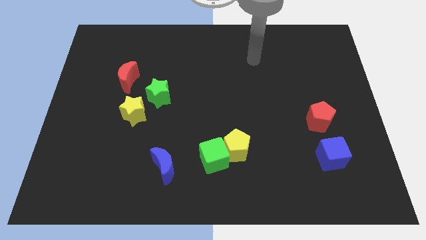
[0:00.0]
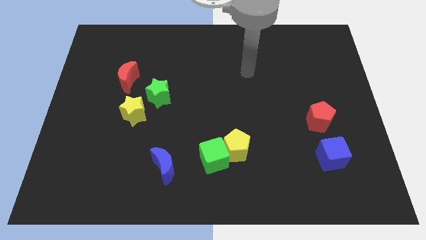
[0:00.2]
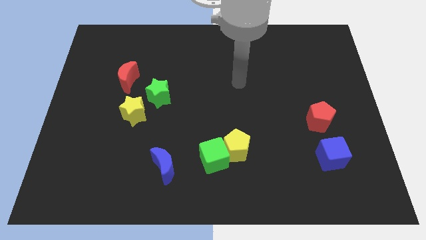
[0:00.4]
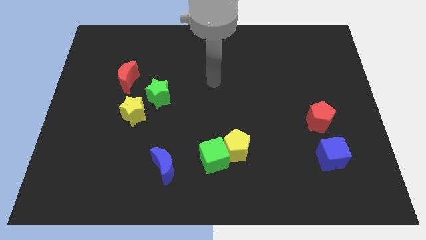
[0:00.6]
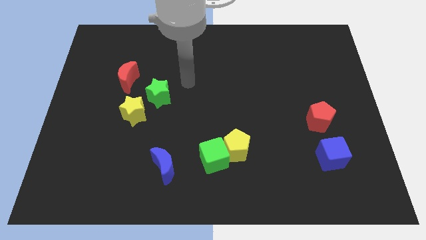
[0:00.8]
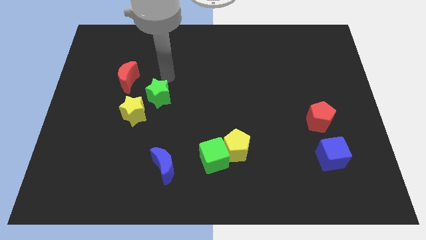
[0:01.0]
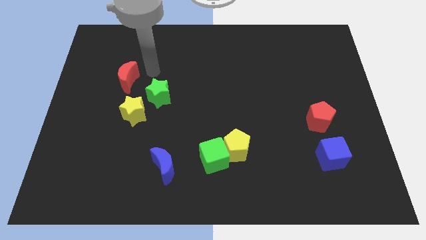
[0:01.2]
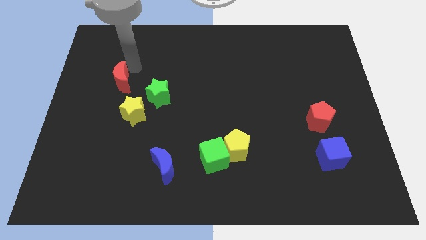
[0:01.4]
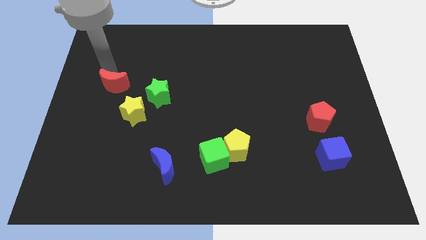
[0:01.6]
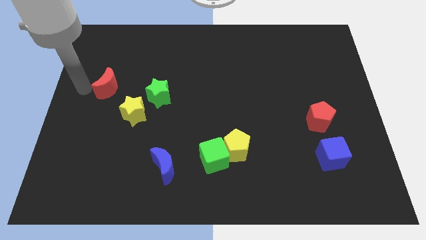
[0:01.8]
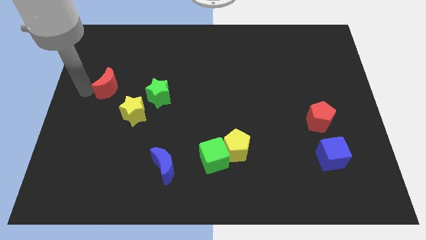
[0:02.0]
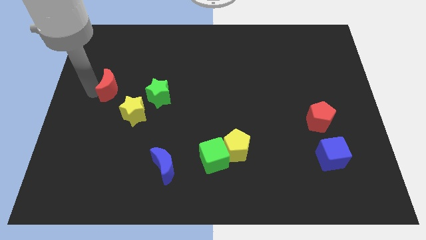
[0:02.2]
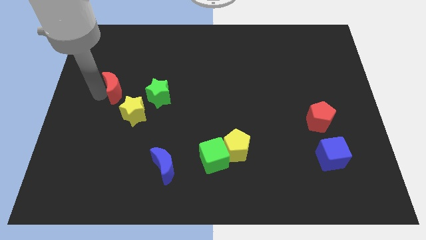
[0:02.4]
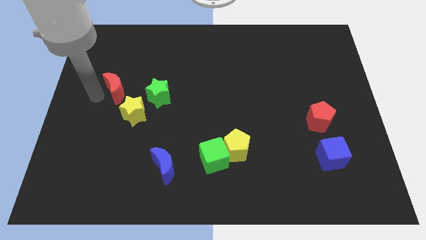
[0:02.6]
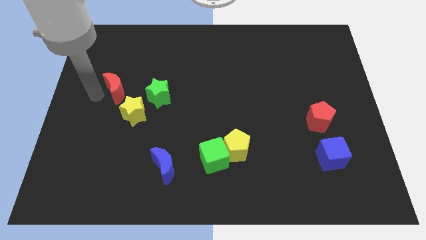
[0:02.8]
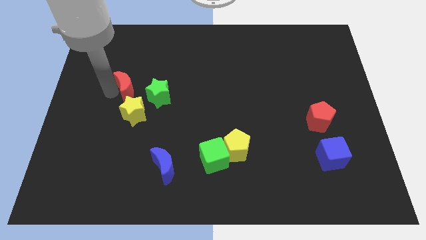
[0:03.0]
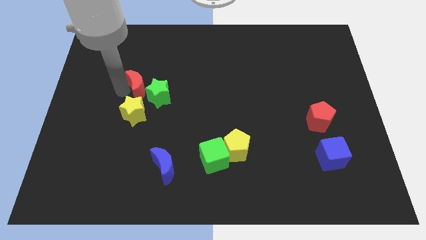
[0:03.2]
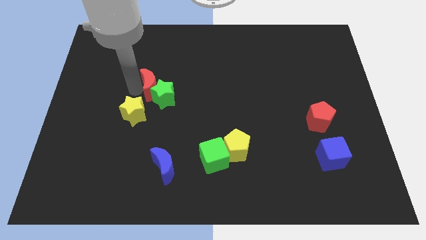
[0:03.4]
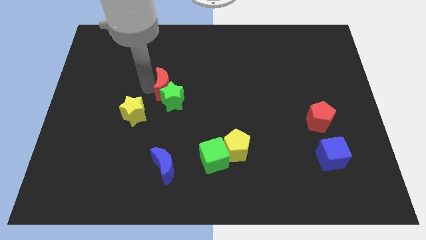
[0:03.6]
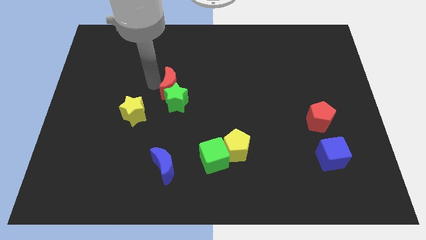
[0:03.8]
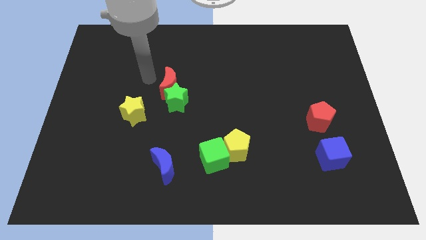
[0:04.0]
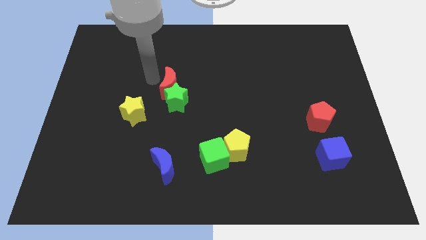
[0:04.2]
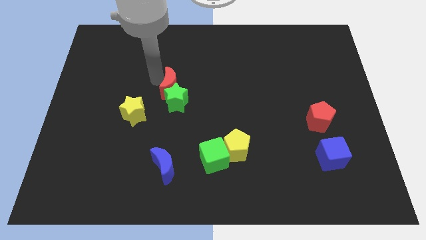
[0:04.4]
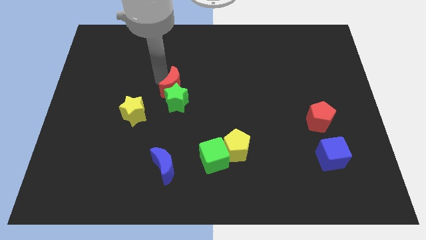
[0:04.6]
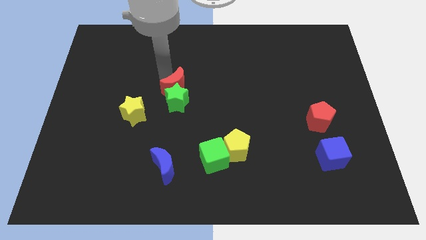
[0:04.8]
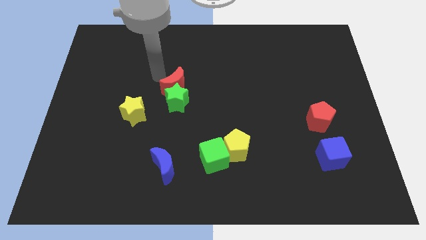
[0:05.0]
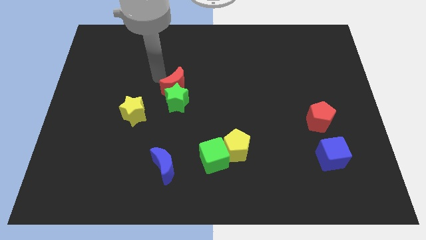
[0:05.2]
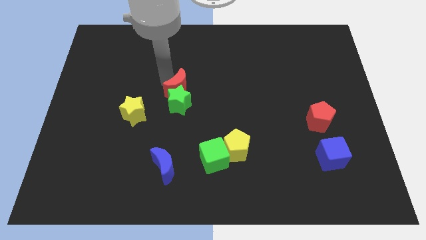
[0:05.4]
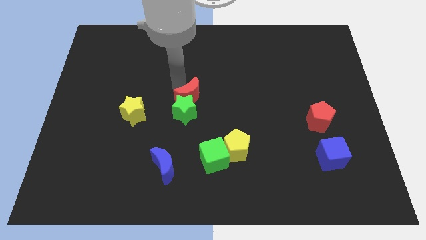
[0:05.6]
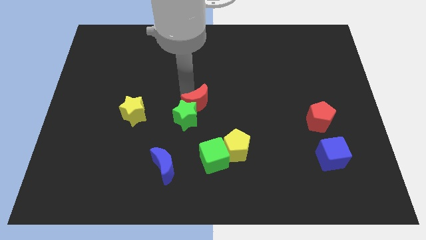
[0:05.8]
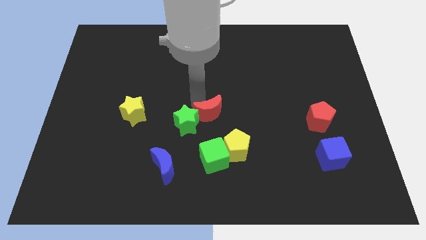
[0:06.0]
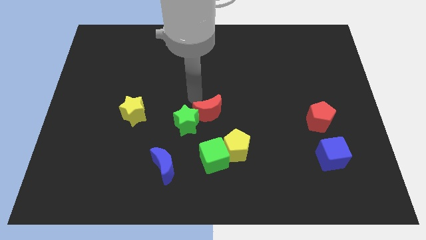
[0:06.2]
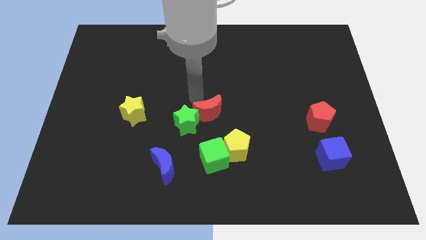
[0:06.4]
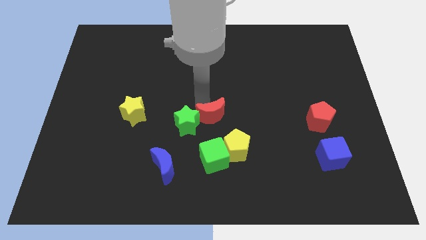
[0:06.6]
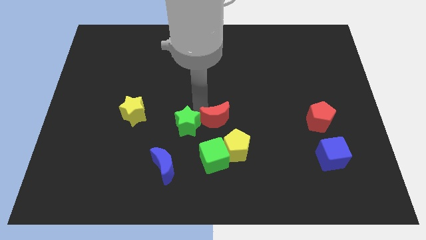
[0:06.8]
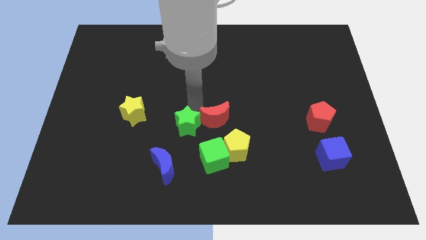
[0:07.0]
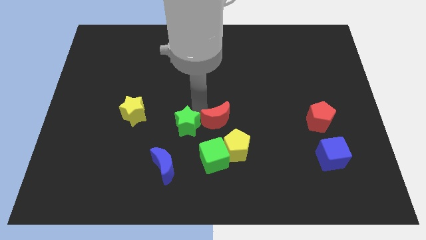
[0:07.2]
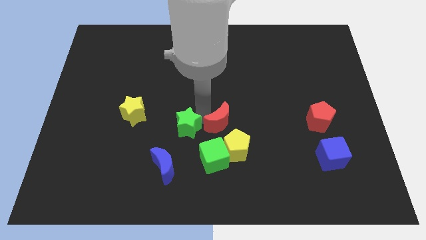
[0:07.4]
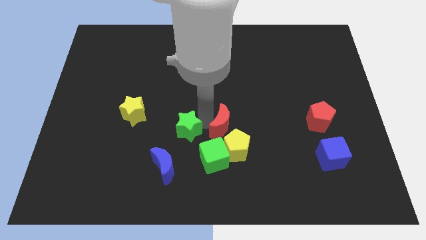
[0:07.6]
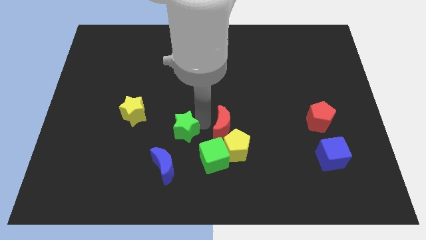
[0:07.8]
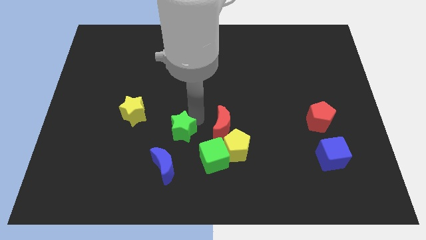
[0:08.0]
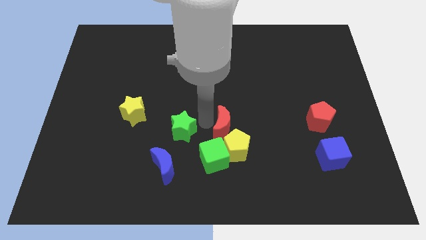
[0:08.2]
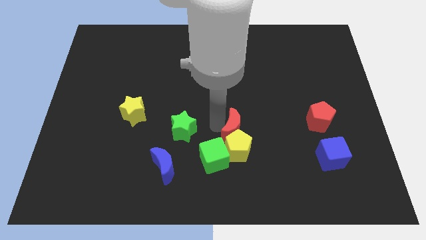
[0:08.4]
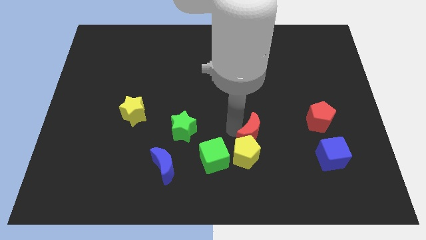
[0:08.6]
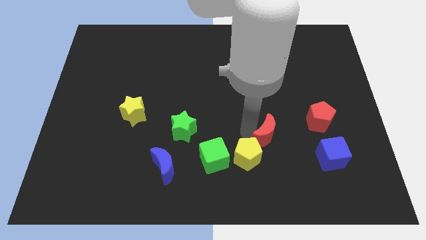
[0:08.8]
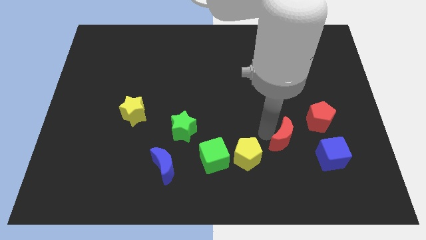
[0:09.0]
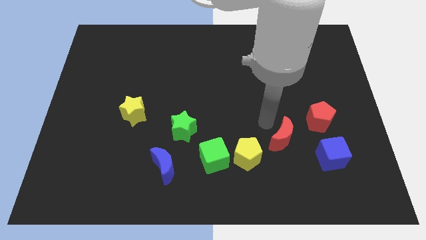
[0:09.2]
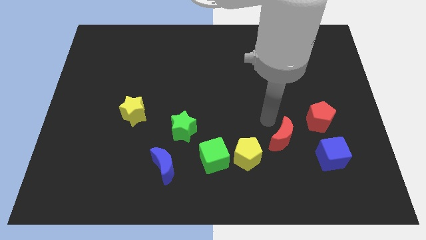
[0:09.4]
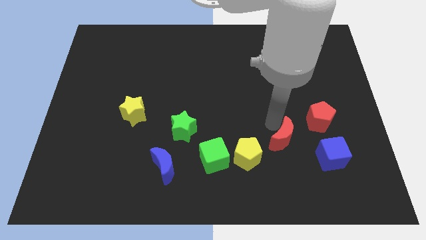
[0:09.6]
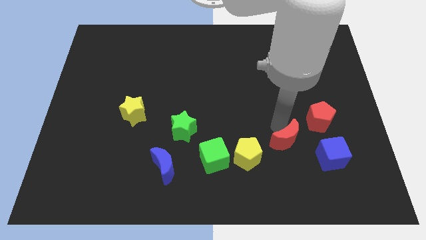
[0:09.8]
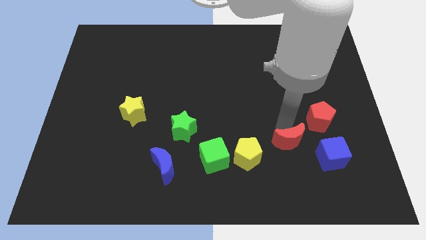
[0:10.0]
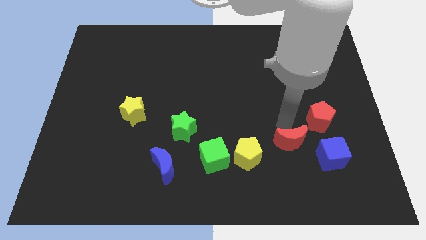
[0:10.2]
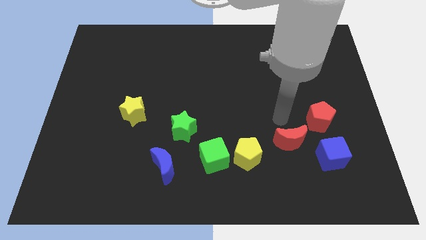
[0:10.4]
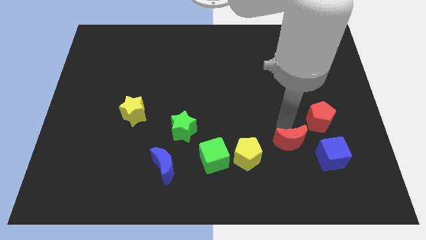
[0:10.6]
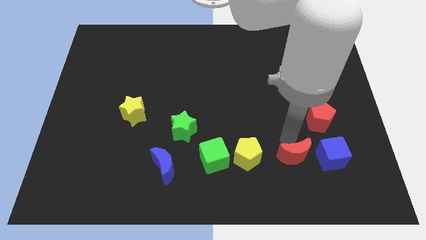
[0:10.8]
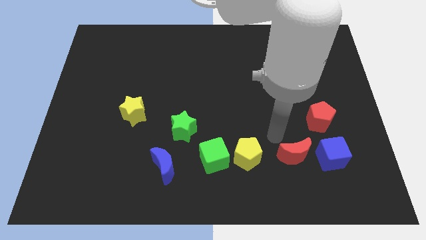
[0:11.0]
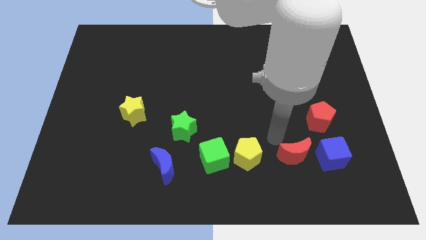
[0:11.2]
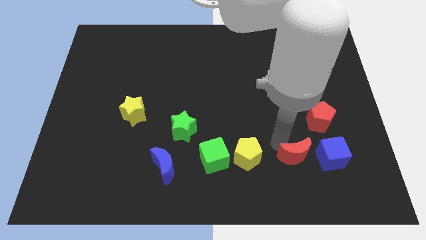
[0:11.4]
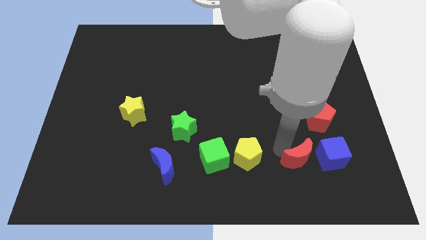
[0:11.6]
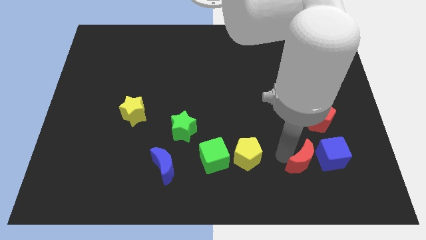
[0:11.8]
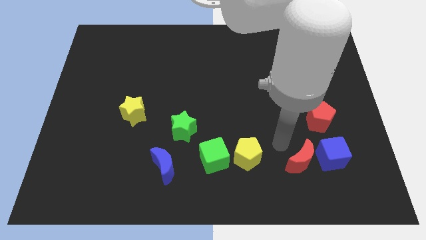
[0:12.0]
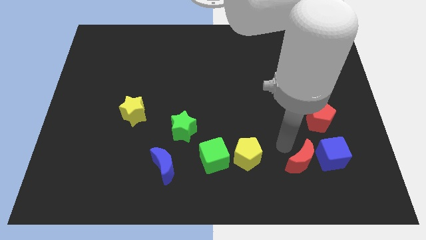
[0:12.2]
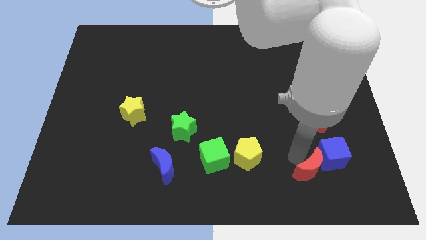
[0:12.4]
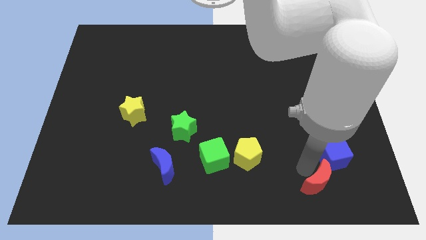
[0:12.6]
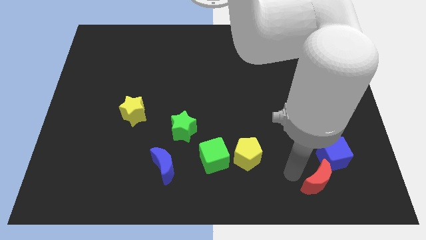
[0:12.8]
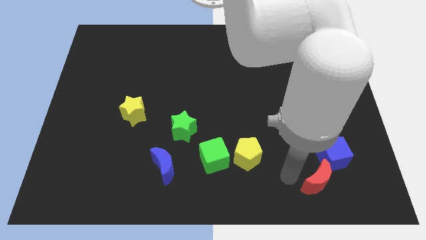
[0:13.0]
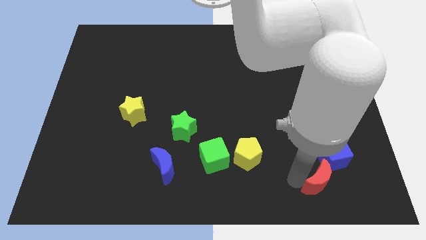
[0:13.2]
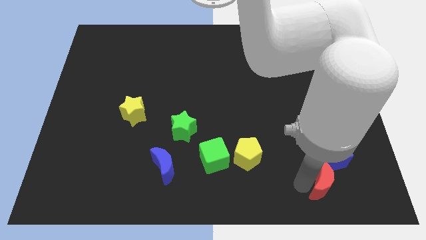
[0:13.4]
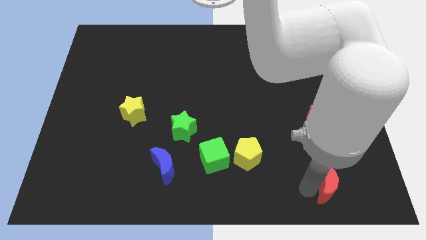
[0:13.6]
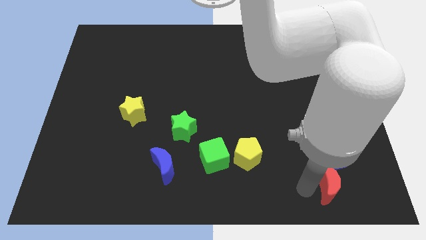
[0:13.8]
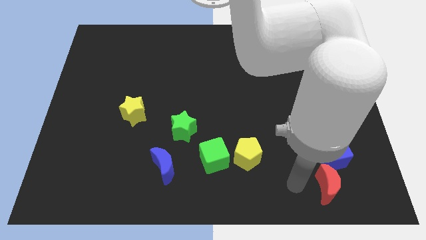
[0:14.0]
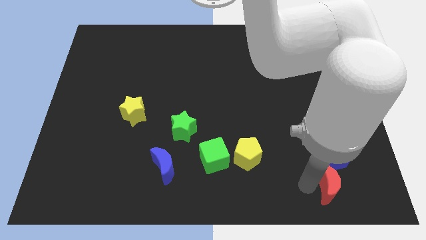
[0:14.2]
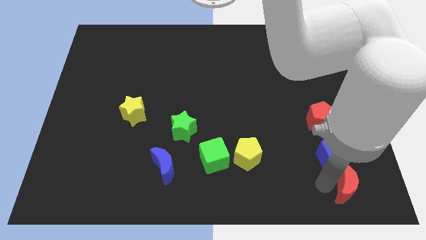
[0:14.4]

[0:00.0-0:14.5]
push the red moon to the bottom right

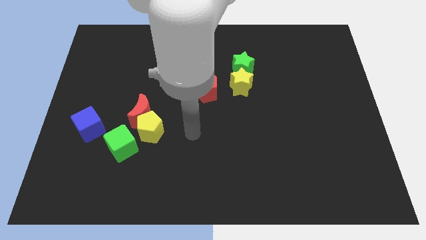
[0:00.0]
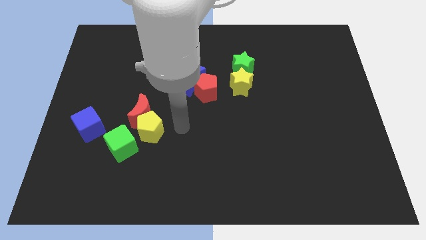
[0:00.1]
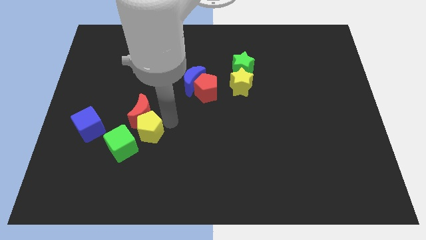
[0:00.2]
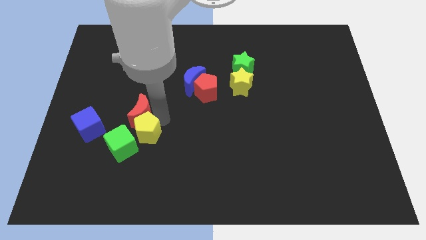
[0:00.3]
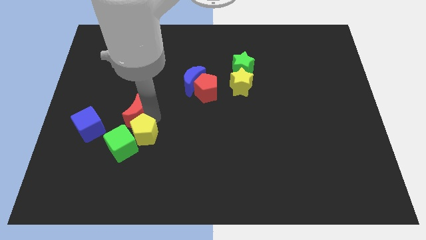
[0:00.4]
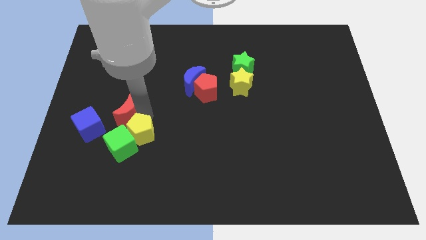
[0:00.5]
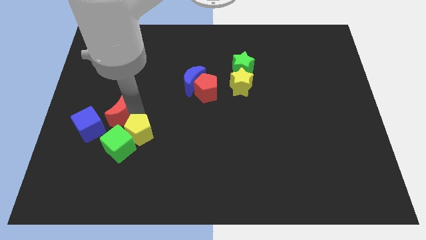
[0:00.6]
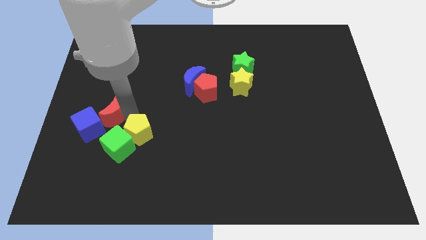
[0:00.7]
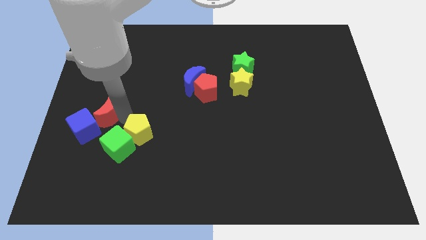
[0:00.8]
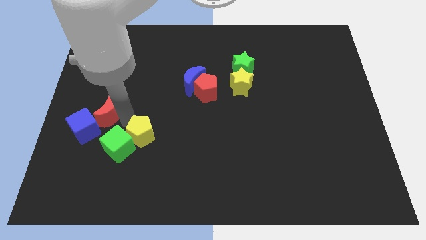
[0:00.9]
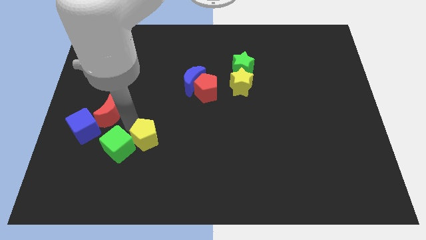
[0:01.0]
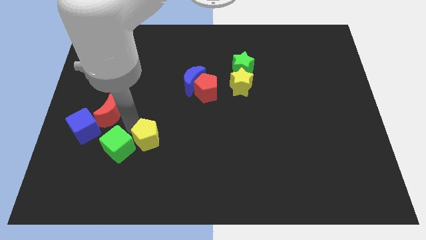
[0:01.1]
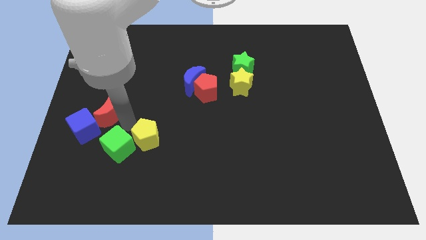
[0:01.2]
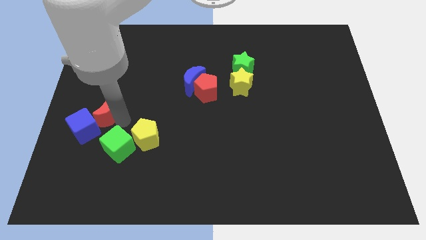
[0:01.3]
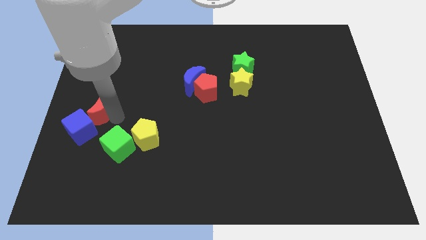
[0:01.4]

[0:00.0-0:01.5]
put the red moon to the center left
